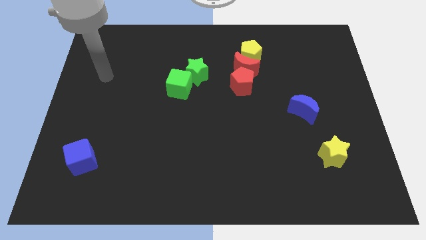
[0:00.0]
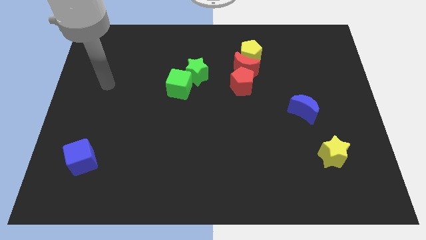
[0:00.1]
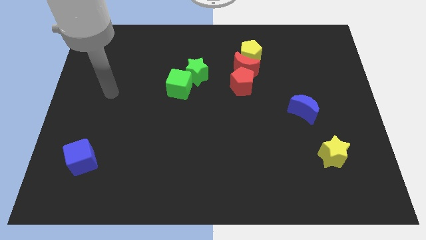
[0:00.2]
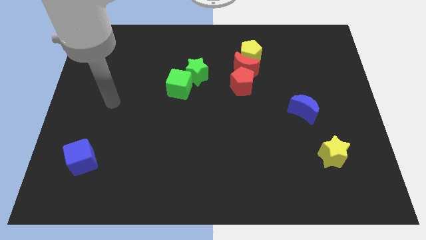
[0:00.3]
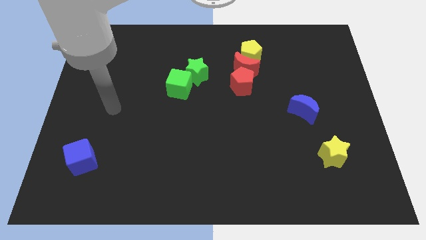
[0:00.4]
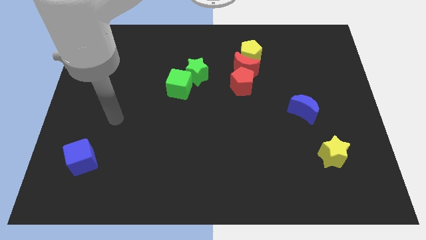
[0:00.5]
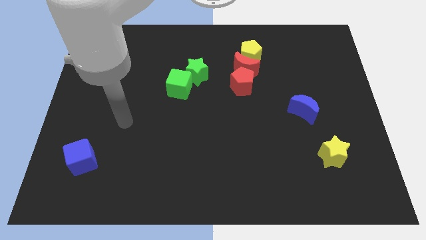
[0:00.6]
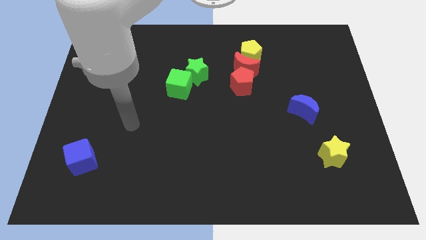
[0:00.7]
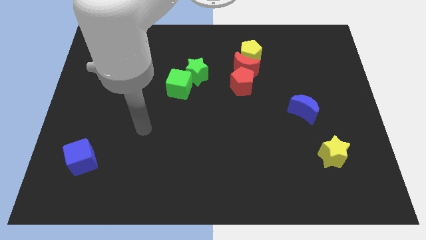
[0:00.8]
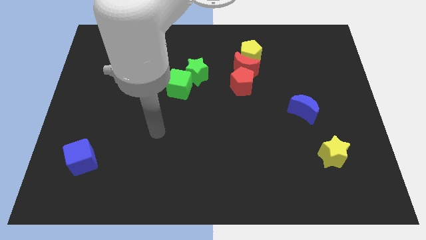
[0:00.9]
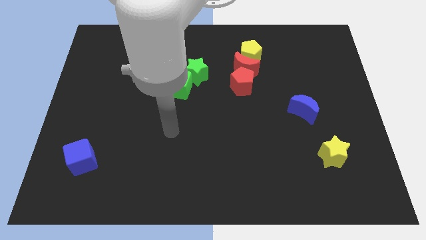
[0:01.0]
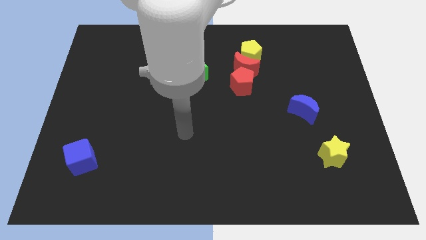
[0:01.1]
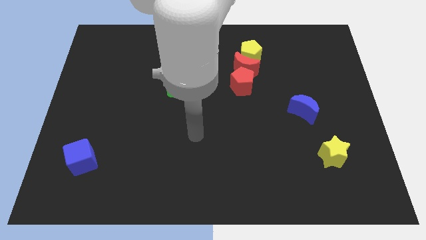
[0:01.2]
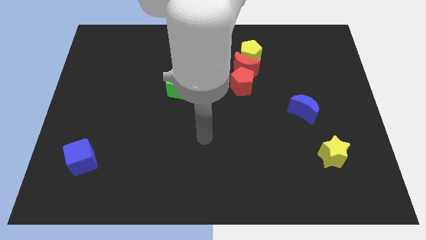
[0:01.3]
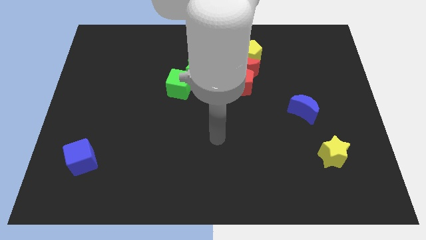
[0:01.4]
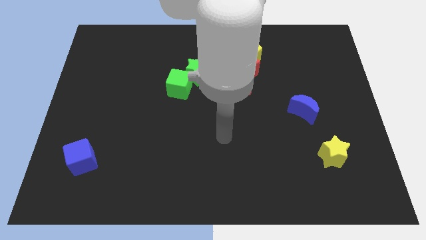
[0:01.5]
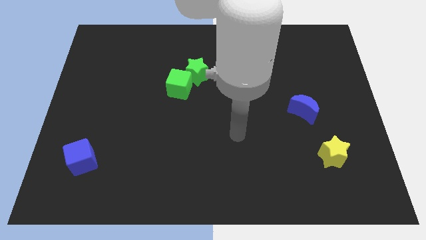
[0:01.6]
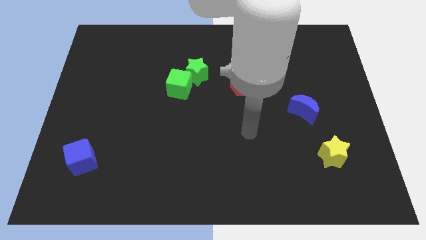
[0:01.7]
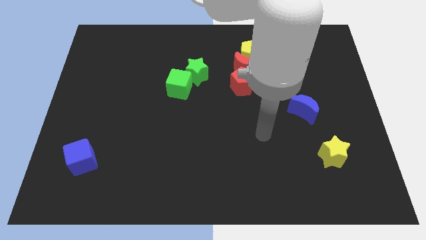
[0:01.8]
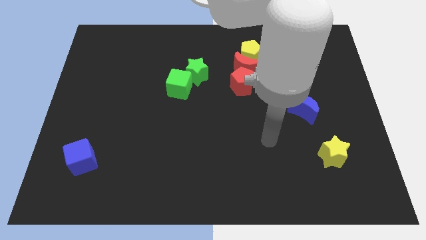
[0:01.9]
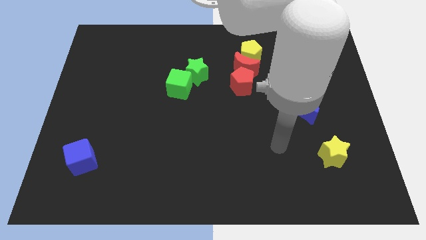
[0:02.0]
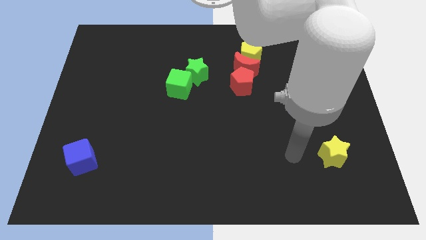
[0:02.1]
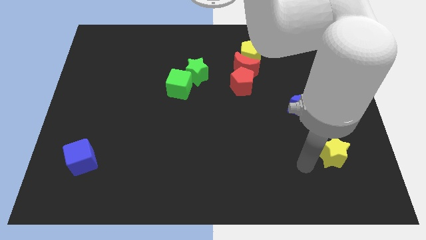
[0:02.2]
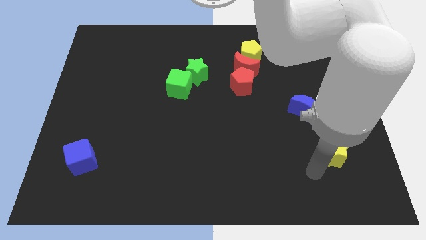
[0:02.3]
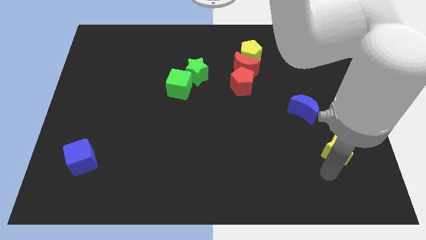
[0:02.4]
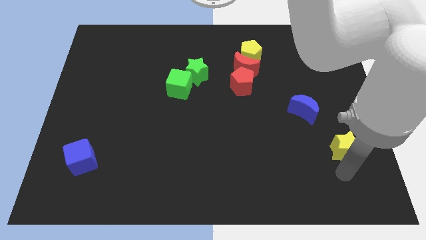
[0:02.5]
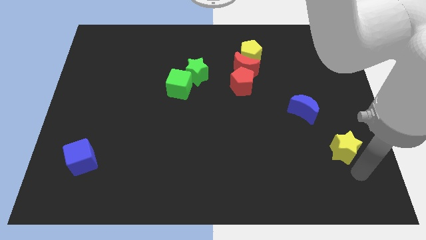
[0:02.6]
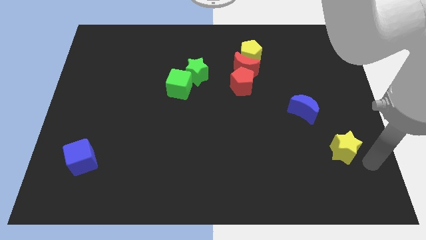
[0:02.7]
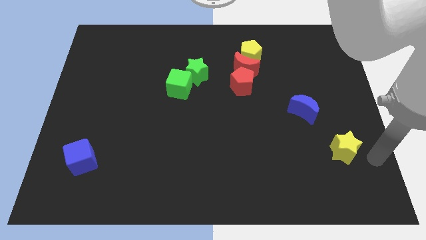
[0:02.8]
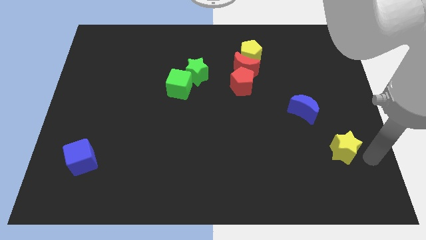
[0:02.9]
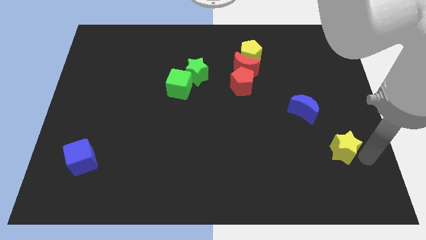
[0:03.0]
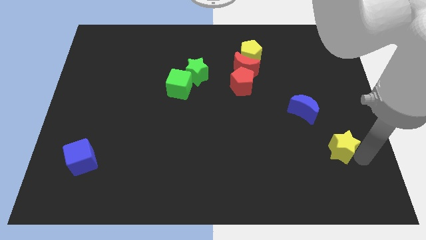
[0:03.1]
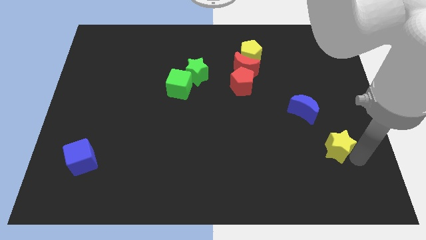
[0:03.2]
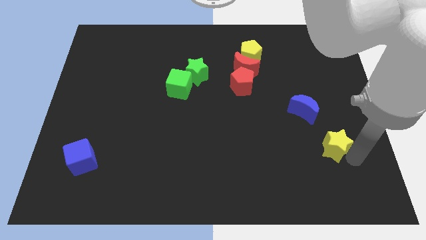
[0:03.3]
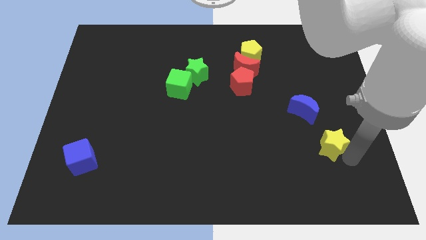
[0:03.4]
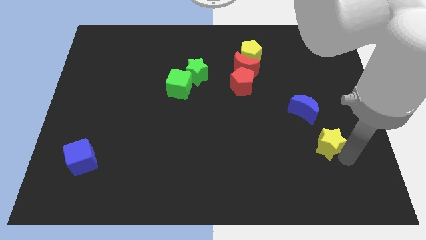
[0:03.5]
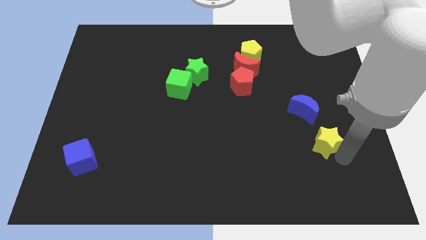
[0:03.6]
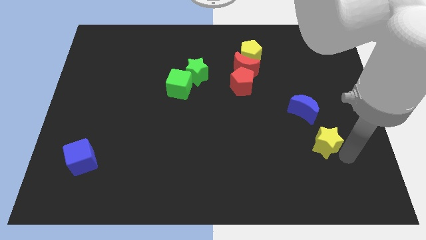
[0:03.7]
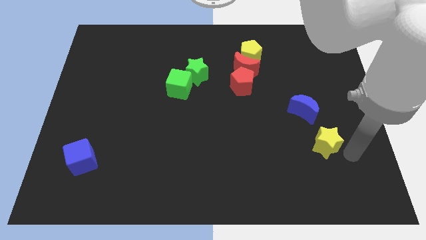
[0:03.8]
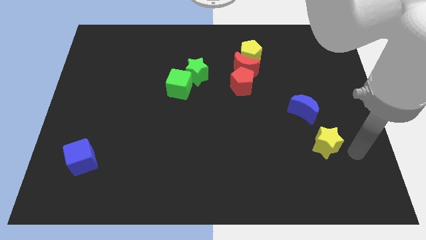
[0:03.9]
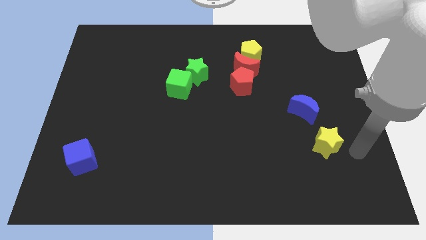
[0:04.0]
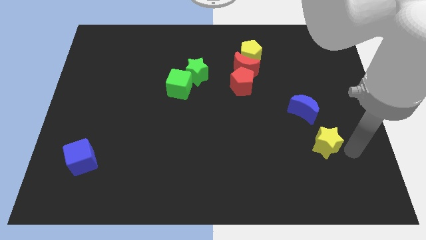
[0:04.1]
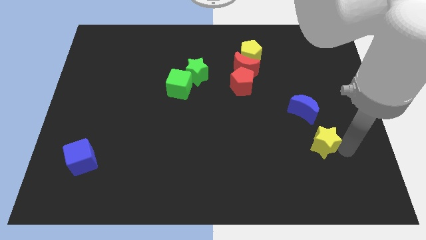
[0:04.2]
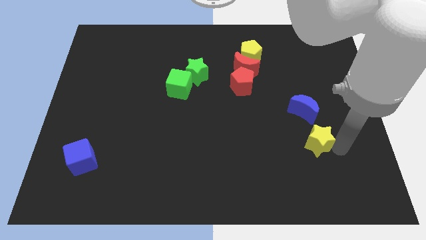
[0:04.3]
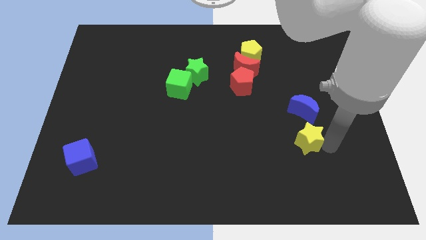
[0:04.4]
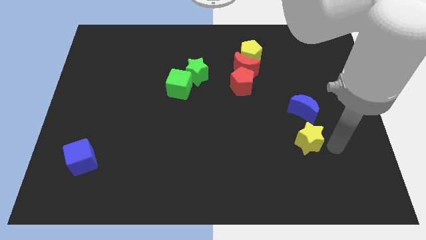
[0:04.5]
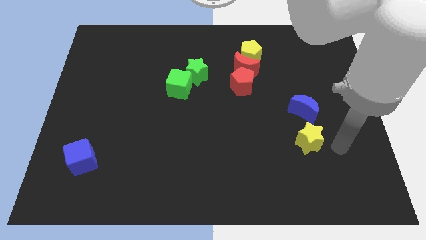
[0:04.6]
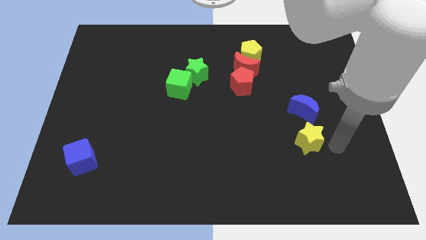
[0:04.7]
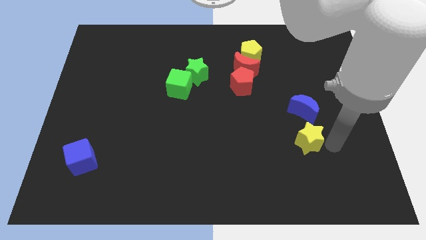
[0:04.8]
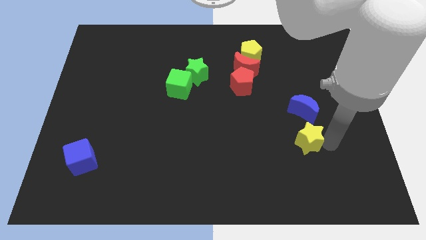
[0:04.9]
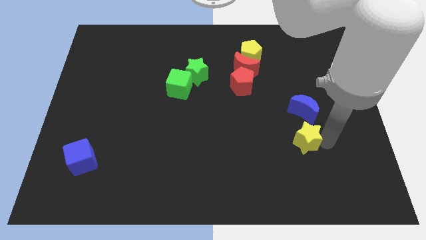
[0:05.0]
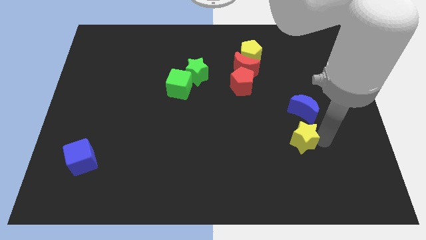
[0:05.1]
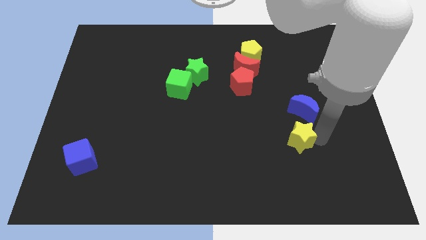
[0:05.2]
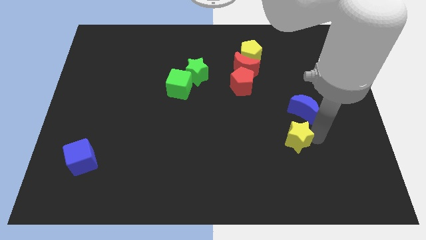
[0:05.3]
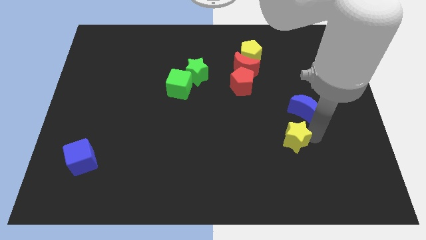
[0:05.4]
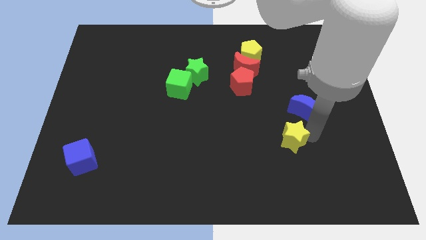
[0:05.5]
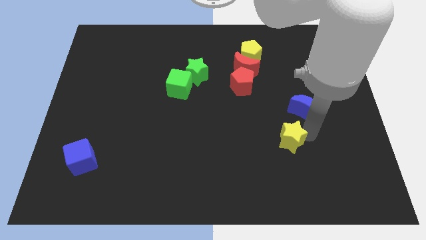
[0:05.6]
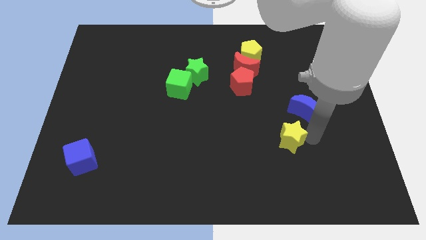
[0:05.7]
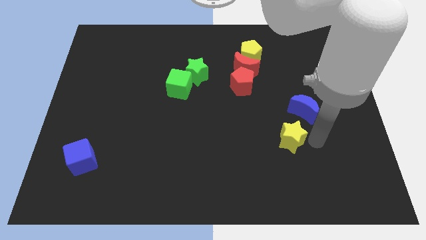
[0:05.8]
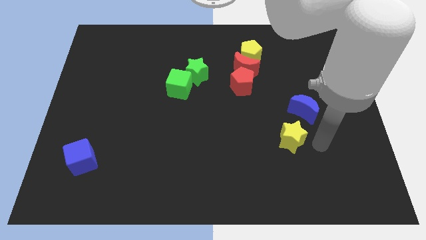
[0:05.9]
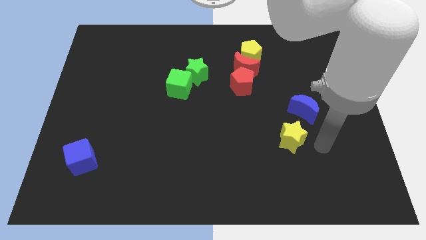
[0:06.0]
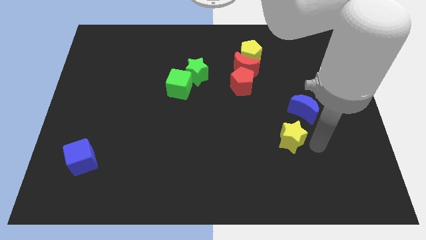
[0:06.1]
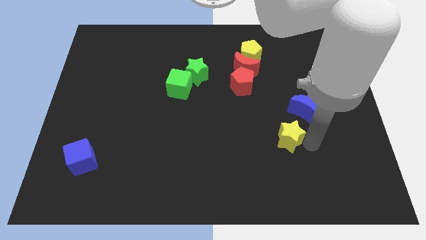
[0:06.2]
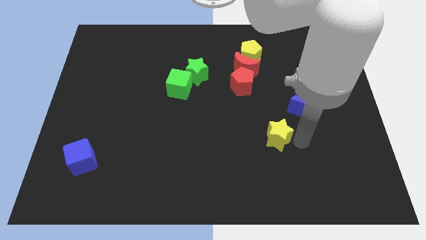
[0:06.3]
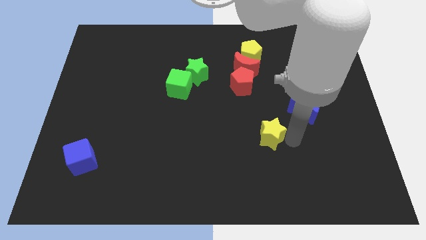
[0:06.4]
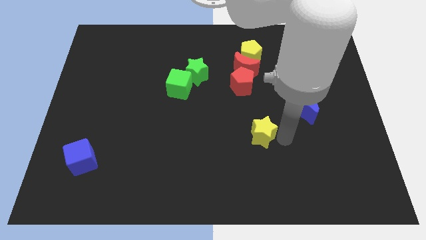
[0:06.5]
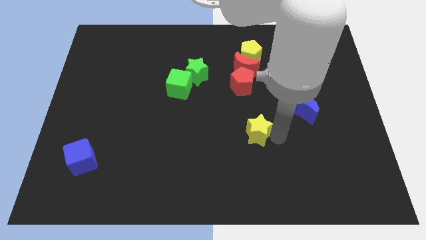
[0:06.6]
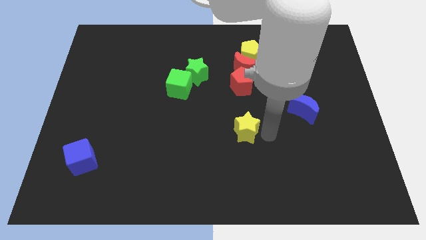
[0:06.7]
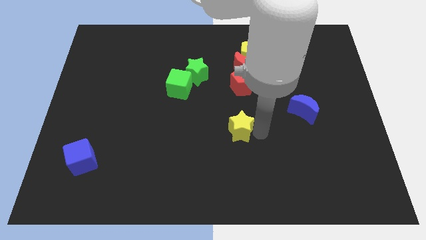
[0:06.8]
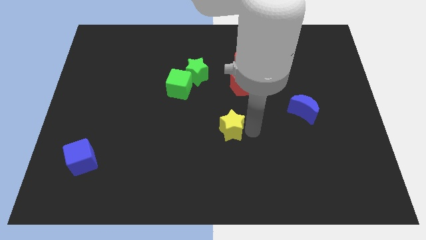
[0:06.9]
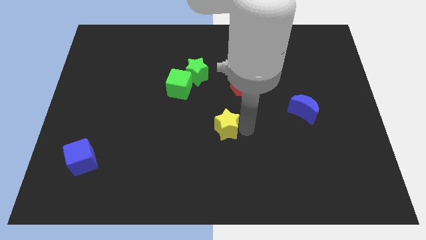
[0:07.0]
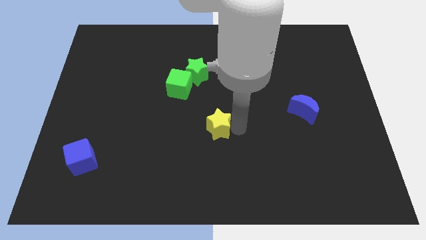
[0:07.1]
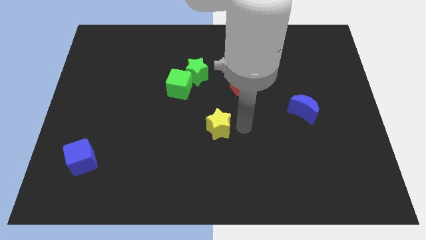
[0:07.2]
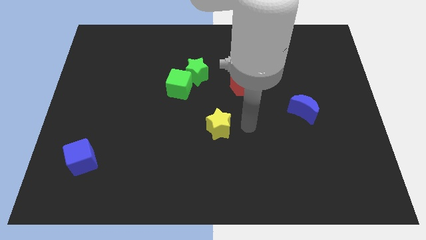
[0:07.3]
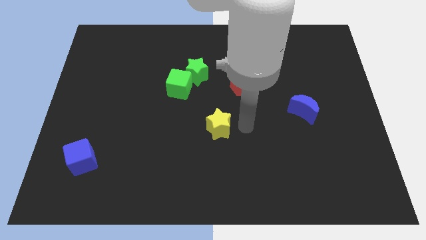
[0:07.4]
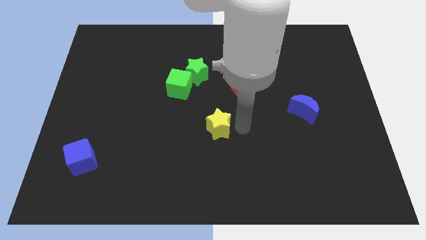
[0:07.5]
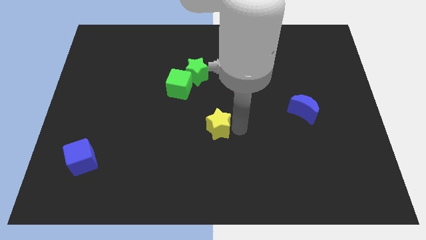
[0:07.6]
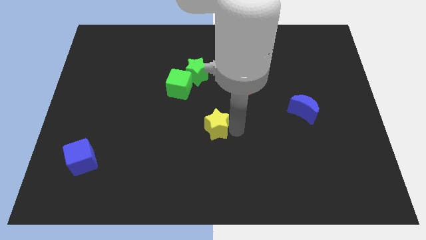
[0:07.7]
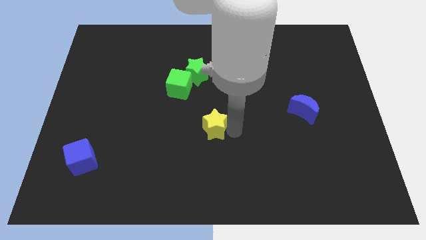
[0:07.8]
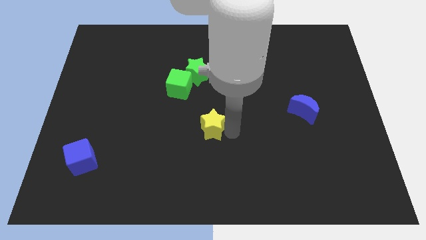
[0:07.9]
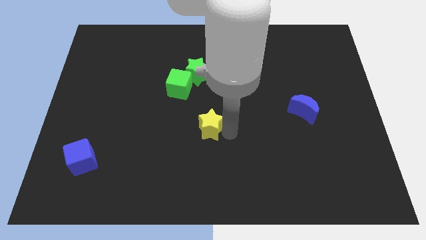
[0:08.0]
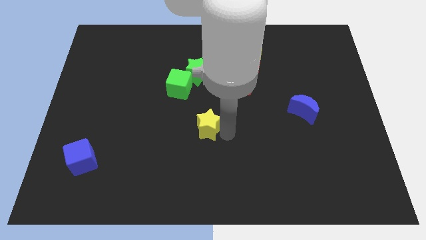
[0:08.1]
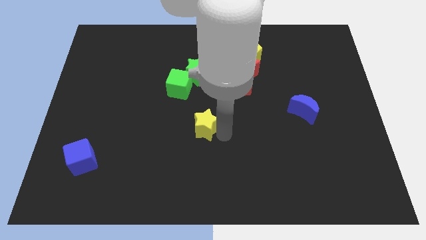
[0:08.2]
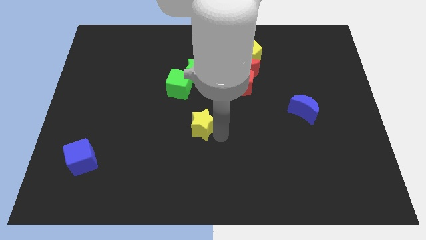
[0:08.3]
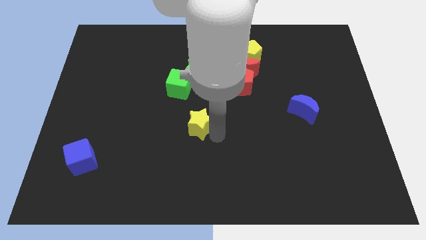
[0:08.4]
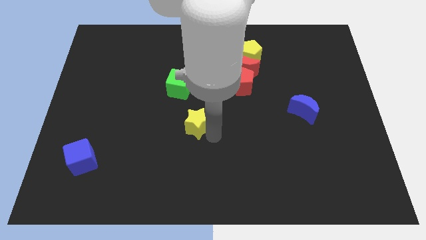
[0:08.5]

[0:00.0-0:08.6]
slide the yellow star below the green cube
